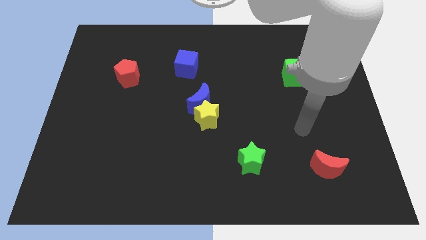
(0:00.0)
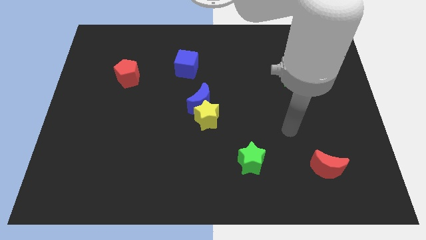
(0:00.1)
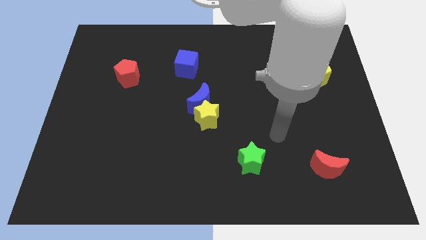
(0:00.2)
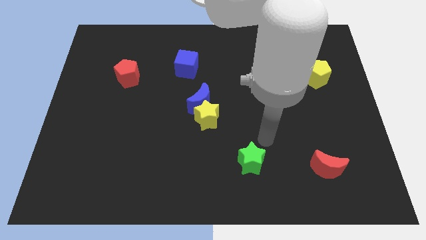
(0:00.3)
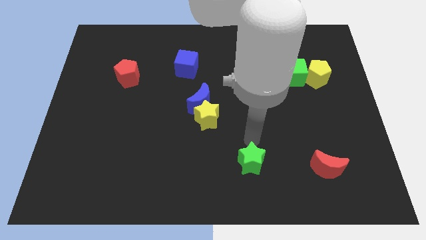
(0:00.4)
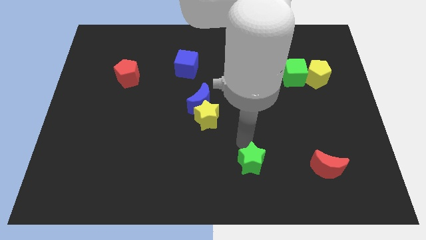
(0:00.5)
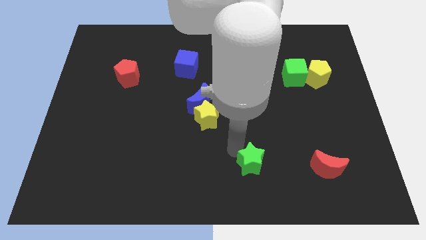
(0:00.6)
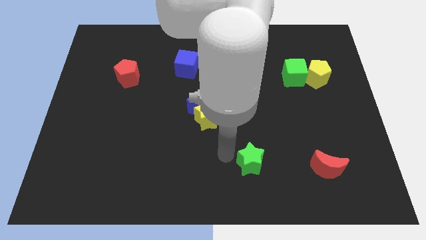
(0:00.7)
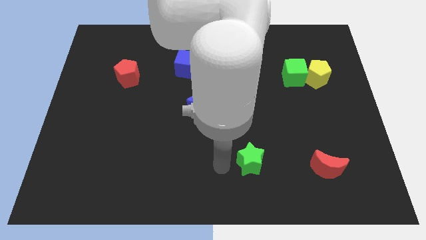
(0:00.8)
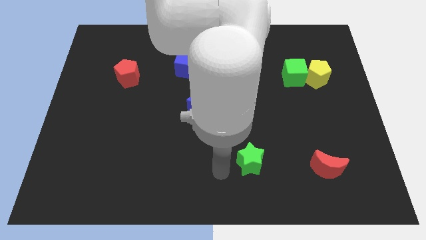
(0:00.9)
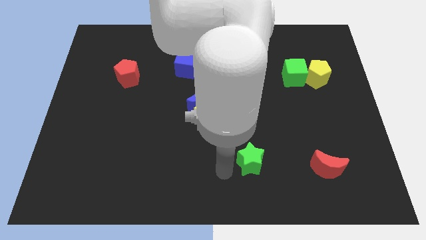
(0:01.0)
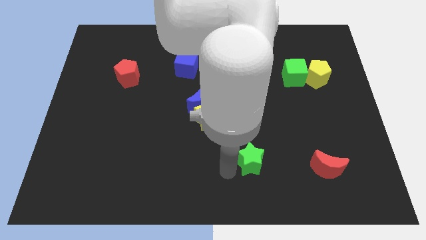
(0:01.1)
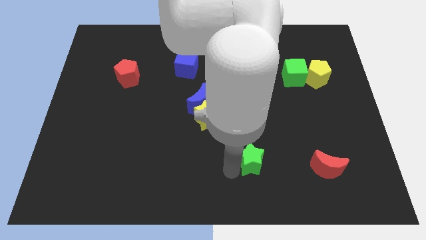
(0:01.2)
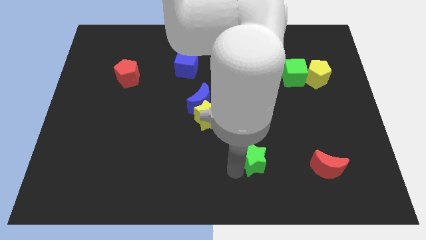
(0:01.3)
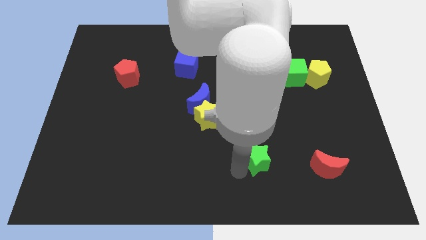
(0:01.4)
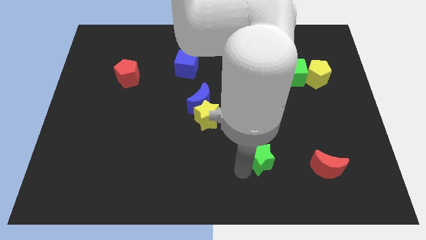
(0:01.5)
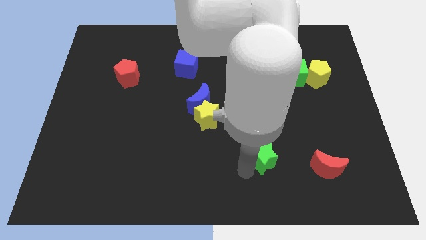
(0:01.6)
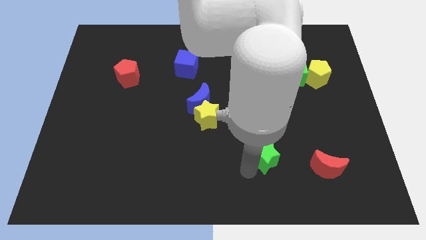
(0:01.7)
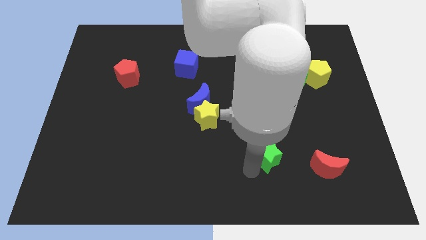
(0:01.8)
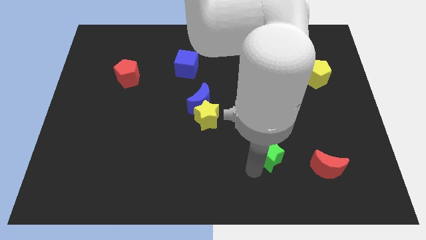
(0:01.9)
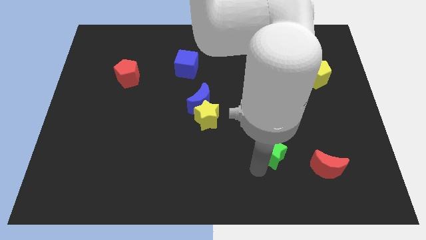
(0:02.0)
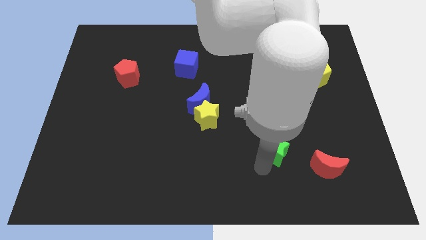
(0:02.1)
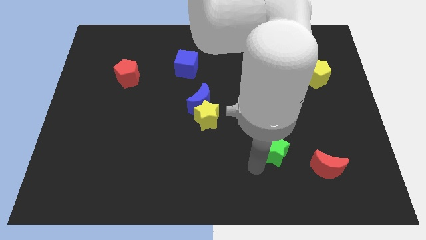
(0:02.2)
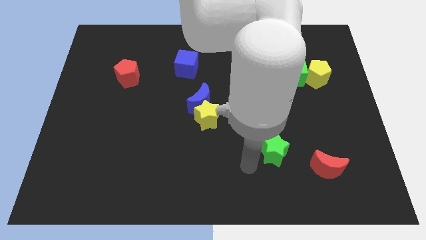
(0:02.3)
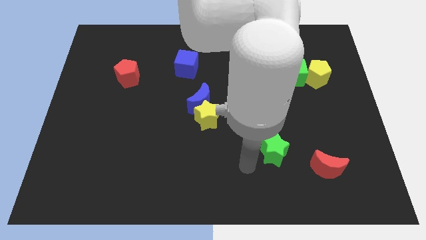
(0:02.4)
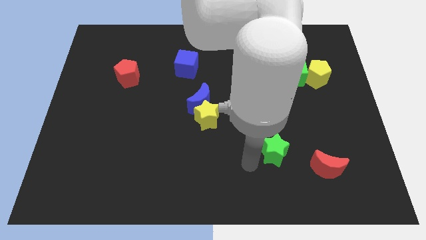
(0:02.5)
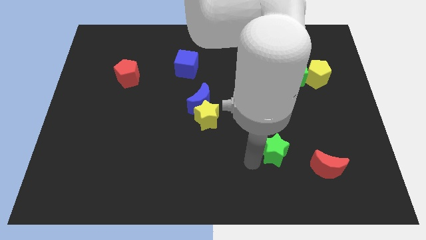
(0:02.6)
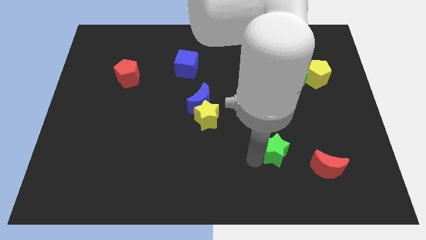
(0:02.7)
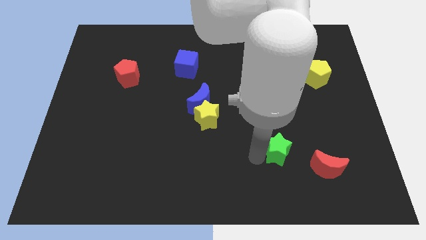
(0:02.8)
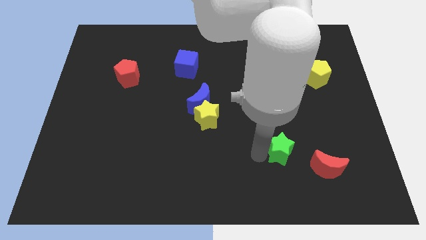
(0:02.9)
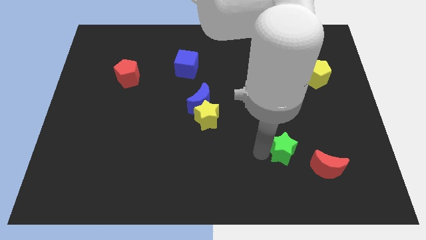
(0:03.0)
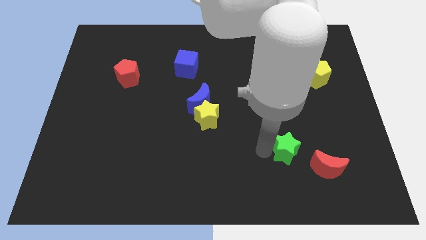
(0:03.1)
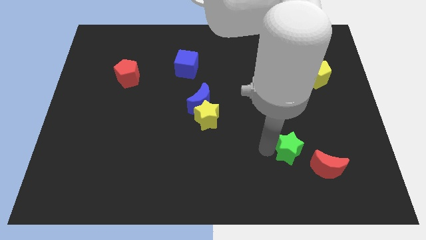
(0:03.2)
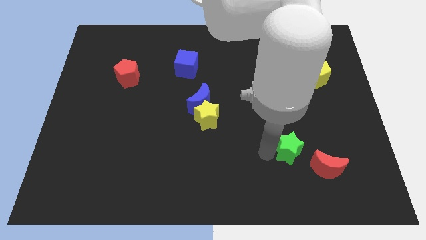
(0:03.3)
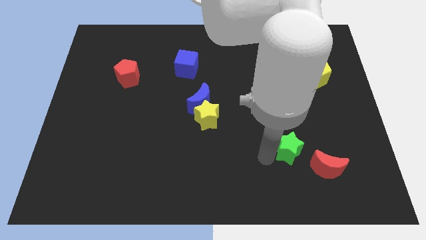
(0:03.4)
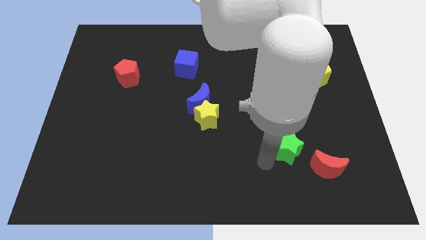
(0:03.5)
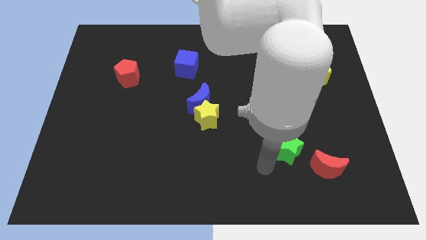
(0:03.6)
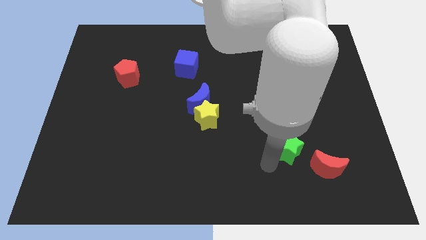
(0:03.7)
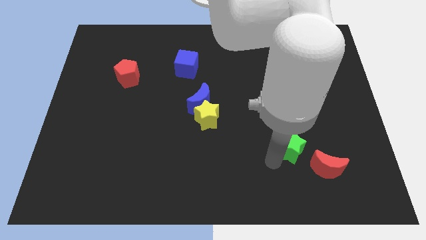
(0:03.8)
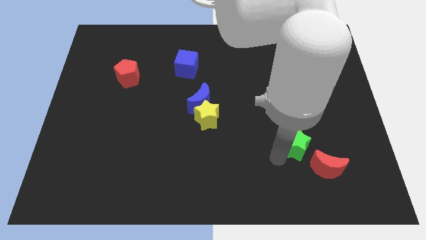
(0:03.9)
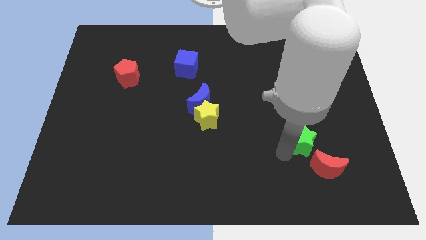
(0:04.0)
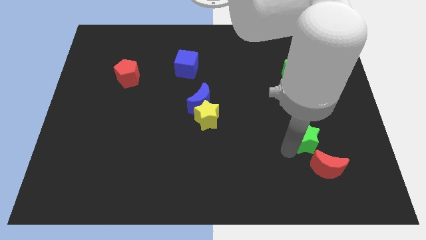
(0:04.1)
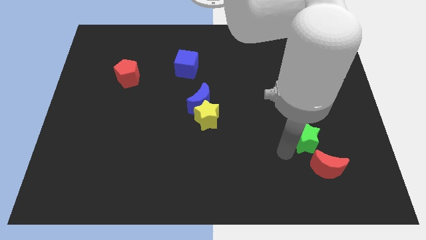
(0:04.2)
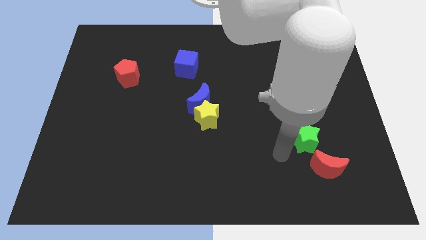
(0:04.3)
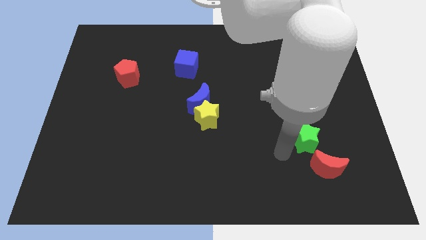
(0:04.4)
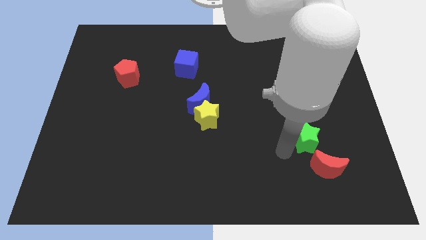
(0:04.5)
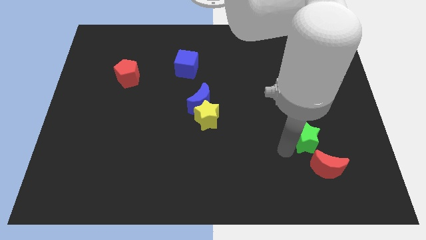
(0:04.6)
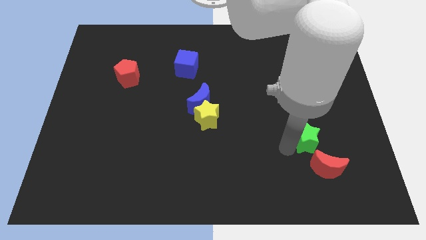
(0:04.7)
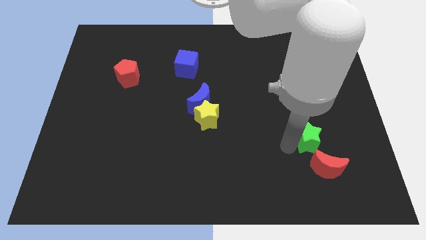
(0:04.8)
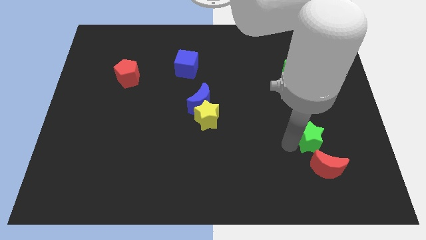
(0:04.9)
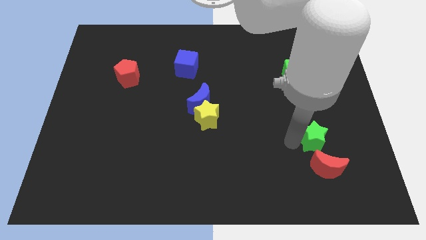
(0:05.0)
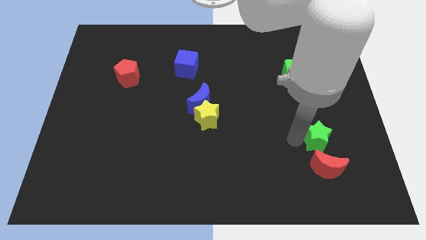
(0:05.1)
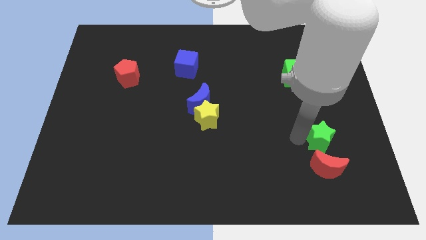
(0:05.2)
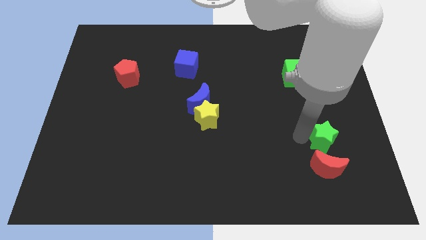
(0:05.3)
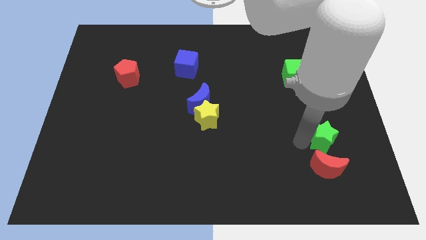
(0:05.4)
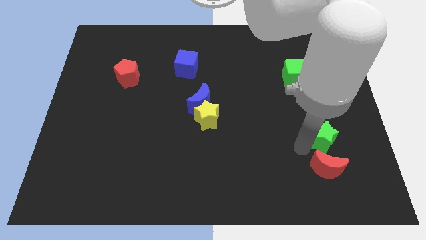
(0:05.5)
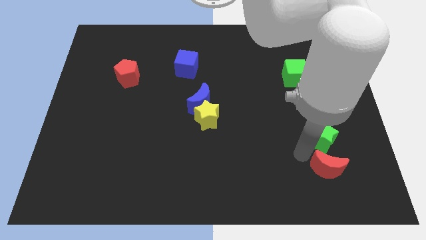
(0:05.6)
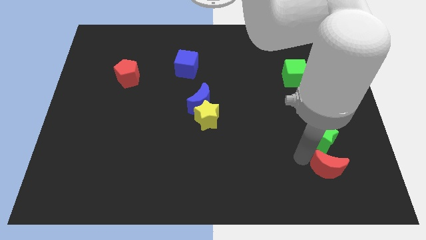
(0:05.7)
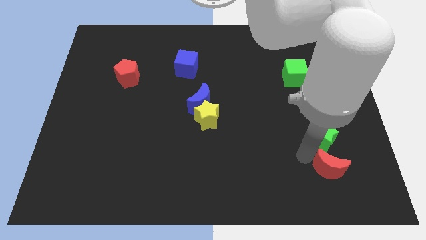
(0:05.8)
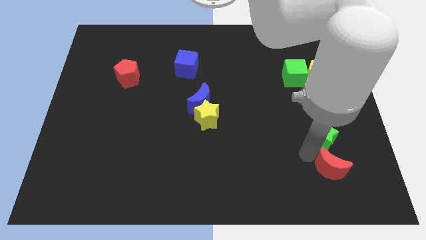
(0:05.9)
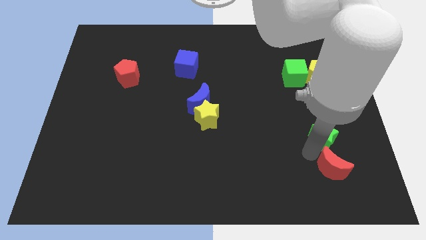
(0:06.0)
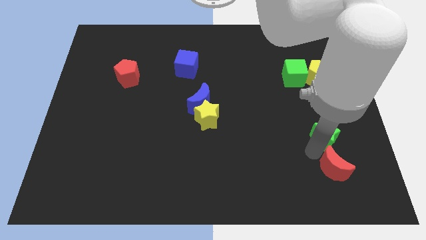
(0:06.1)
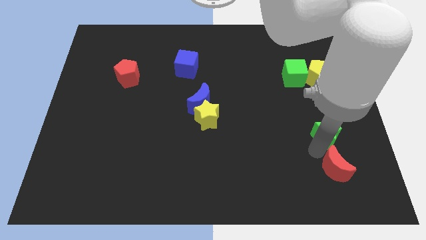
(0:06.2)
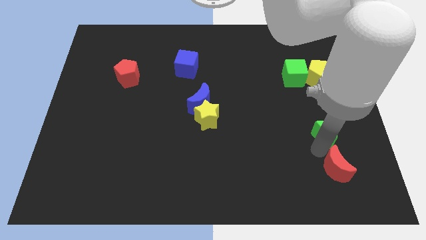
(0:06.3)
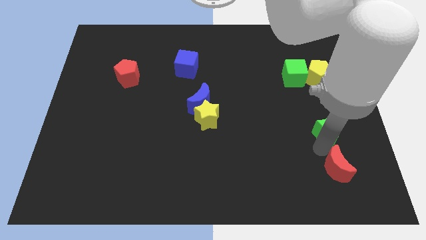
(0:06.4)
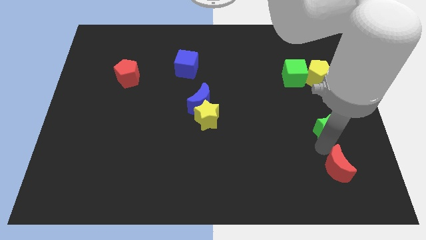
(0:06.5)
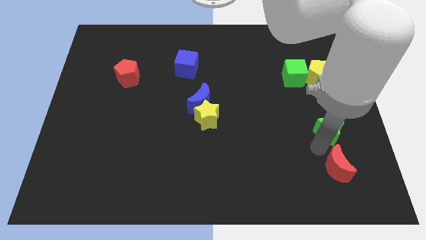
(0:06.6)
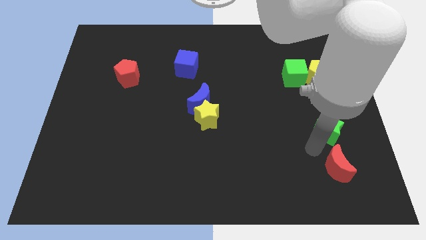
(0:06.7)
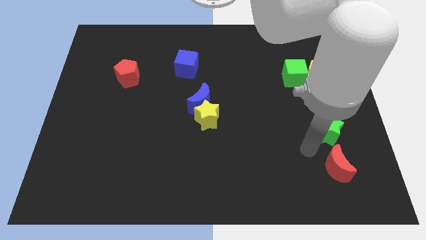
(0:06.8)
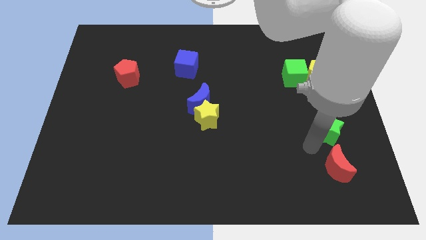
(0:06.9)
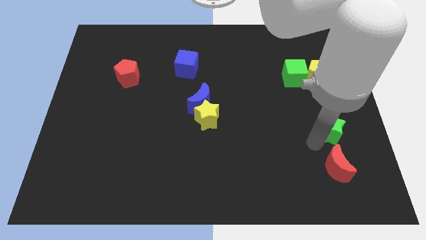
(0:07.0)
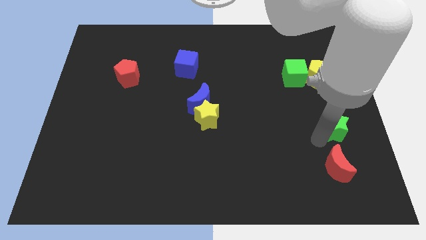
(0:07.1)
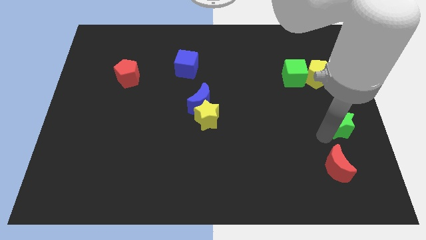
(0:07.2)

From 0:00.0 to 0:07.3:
put the green star to the right side
